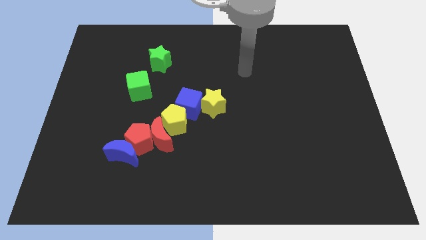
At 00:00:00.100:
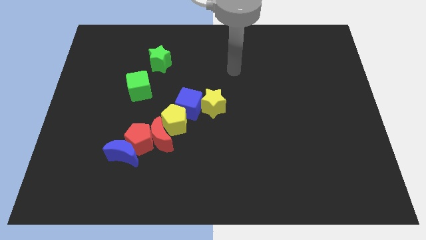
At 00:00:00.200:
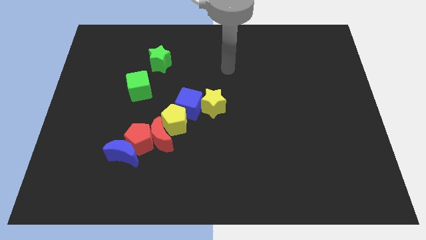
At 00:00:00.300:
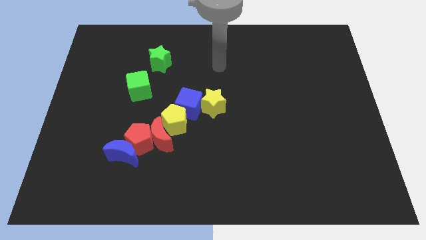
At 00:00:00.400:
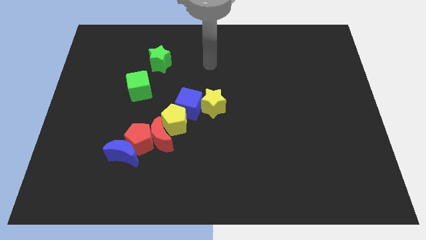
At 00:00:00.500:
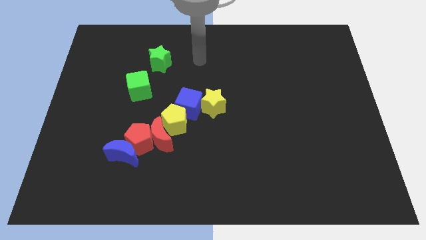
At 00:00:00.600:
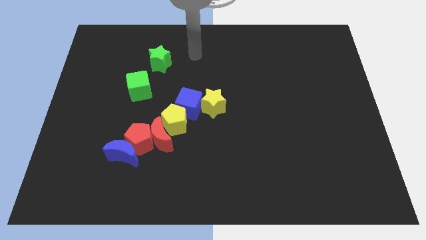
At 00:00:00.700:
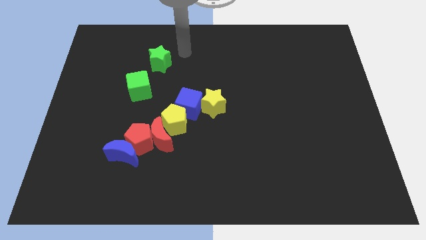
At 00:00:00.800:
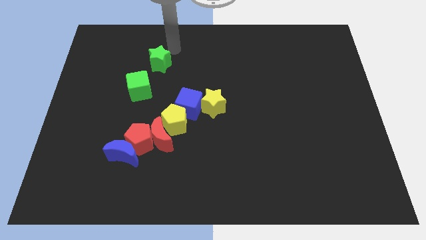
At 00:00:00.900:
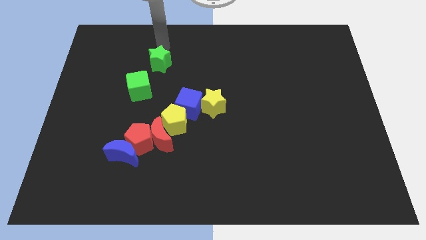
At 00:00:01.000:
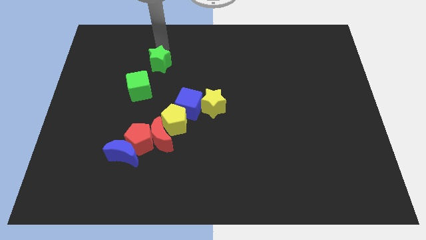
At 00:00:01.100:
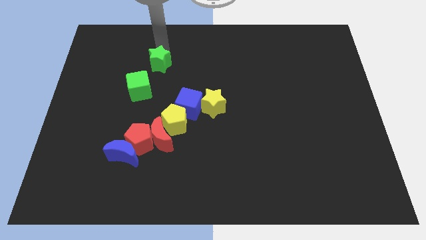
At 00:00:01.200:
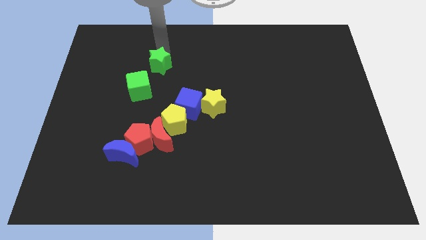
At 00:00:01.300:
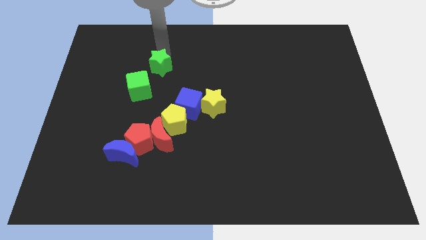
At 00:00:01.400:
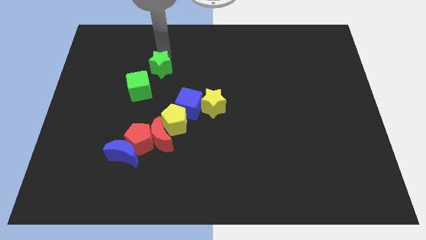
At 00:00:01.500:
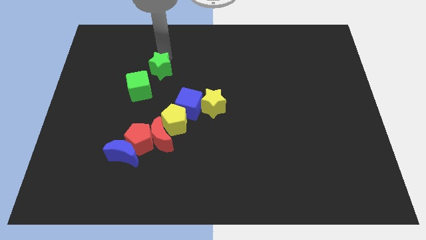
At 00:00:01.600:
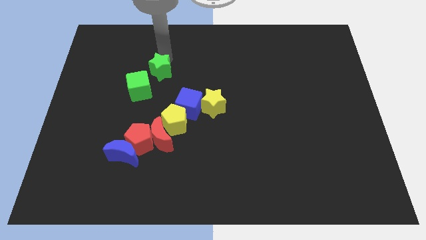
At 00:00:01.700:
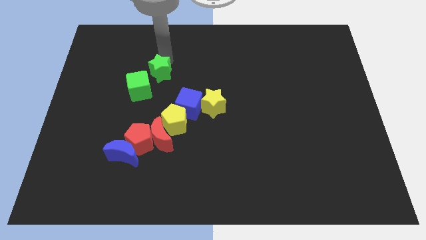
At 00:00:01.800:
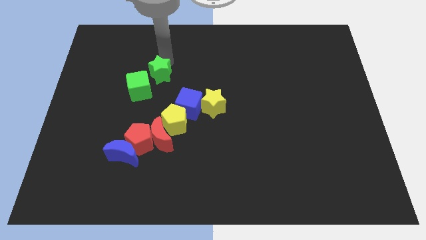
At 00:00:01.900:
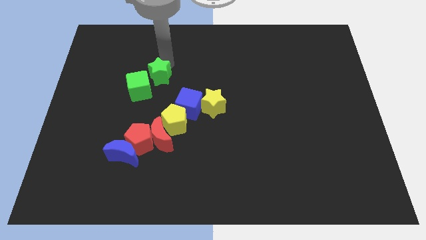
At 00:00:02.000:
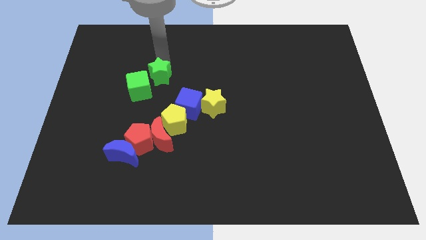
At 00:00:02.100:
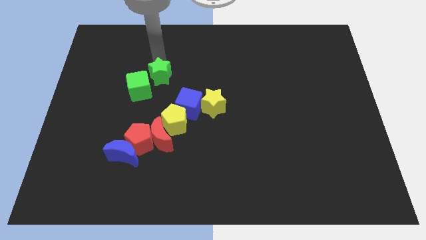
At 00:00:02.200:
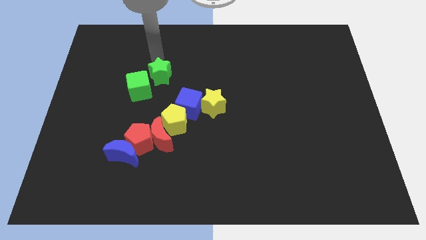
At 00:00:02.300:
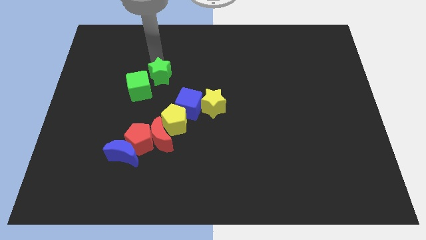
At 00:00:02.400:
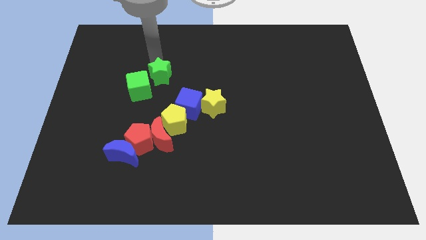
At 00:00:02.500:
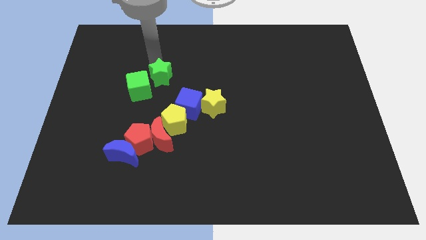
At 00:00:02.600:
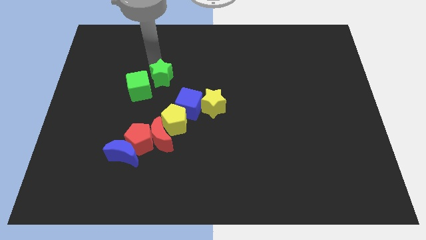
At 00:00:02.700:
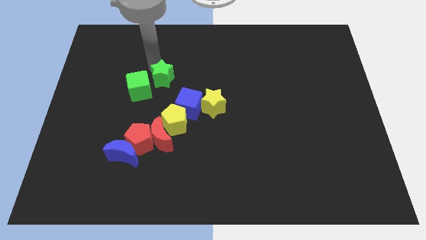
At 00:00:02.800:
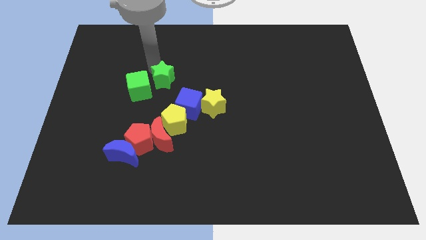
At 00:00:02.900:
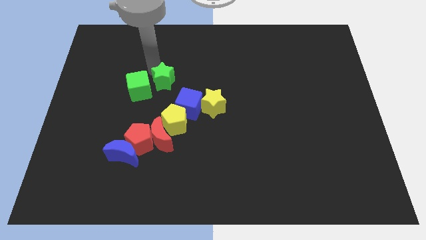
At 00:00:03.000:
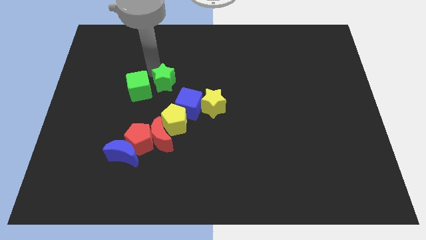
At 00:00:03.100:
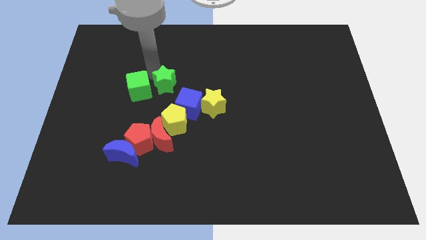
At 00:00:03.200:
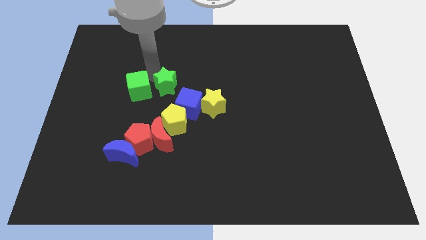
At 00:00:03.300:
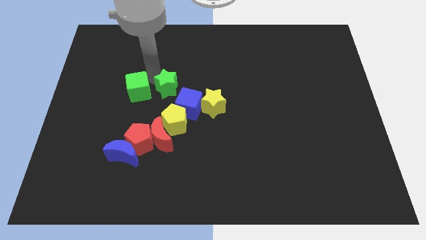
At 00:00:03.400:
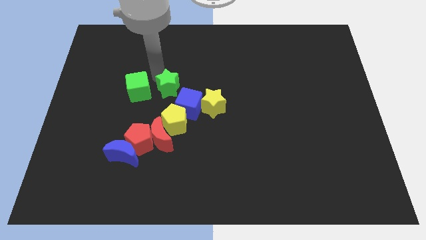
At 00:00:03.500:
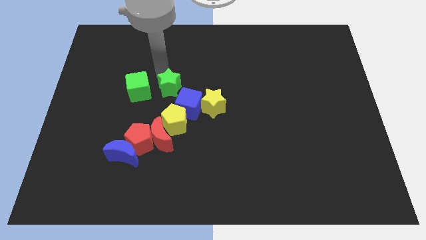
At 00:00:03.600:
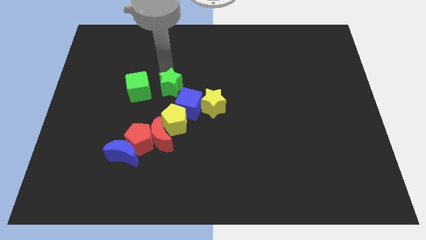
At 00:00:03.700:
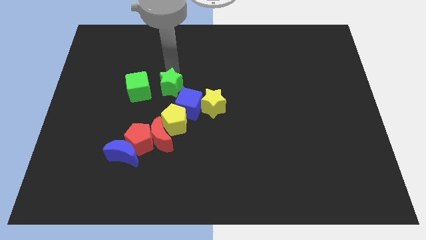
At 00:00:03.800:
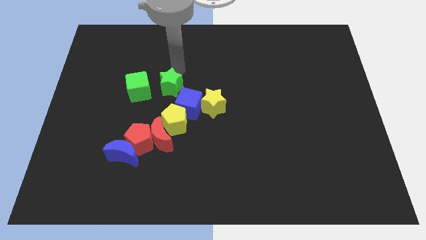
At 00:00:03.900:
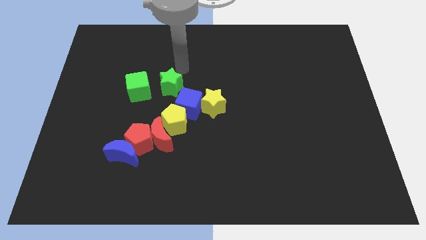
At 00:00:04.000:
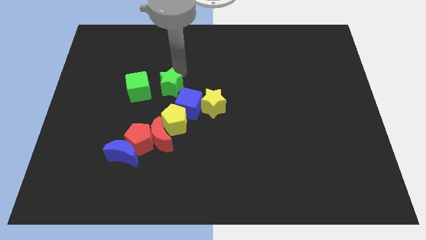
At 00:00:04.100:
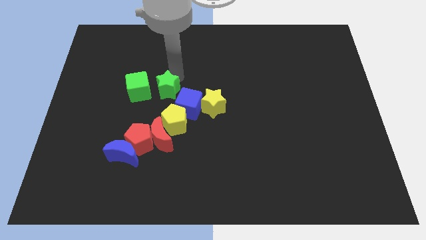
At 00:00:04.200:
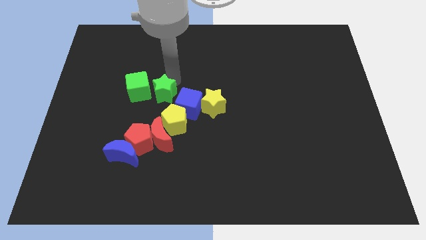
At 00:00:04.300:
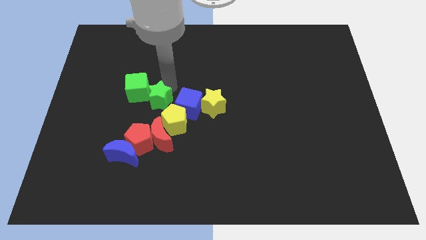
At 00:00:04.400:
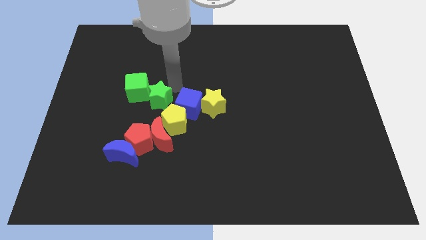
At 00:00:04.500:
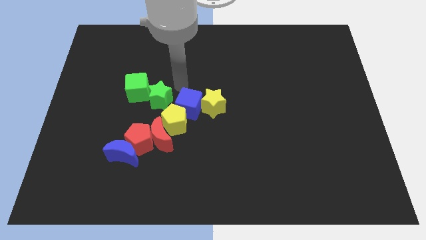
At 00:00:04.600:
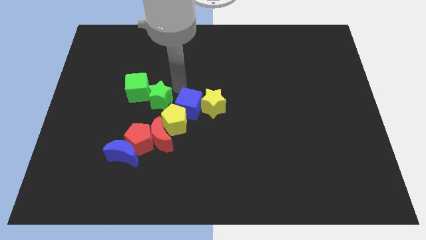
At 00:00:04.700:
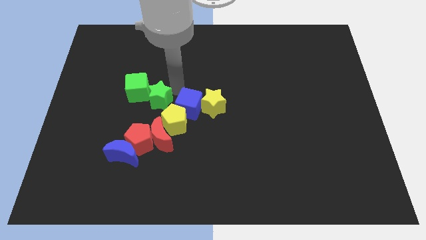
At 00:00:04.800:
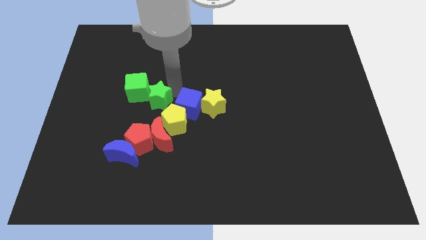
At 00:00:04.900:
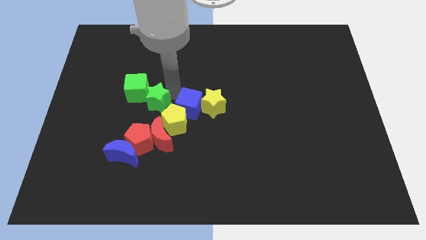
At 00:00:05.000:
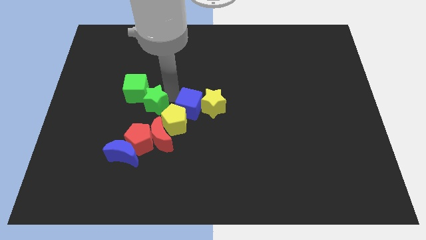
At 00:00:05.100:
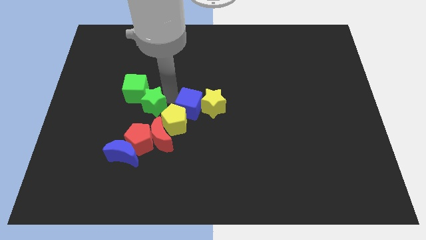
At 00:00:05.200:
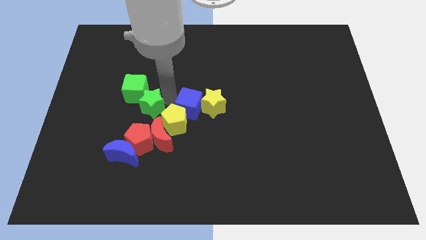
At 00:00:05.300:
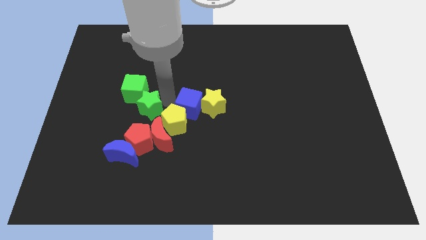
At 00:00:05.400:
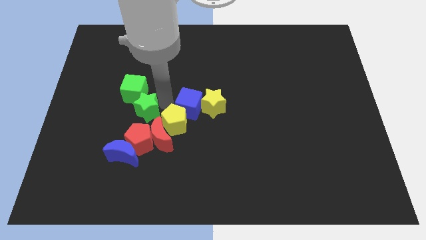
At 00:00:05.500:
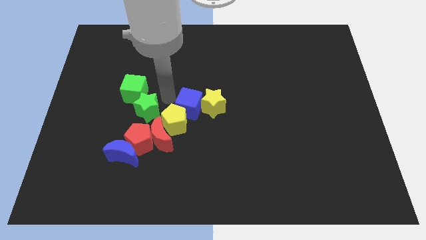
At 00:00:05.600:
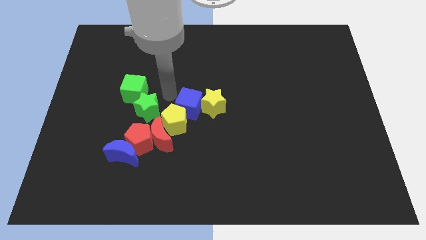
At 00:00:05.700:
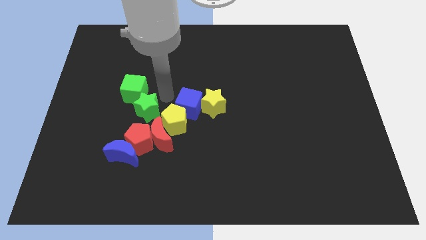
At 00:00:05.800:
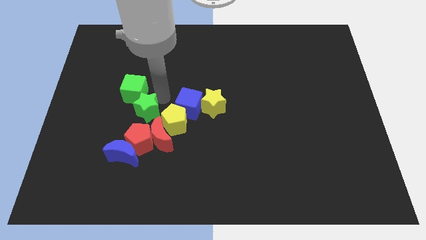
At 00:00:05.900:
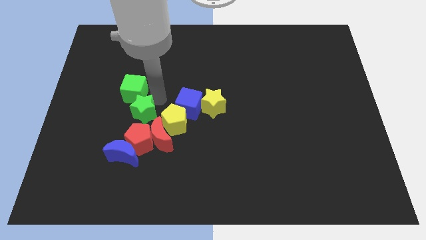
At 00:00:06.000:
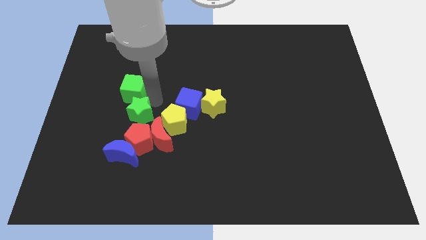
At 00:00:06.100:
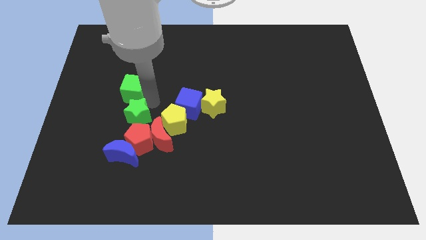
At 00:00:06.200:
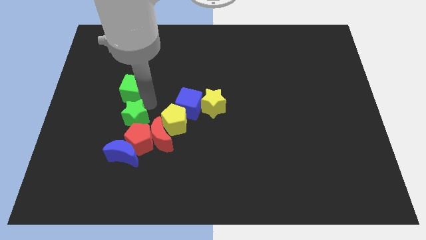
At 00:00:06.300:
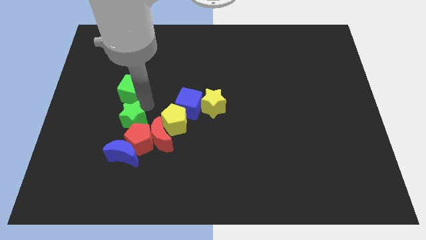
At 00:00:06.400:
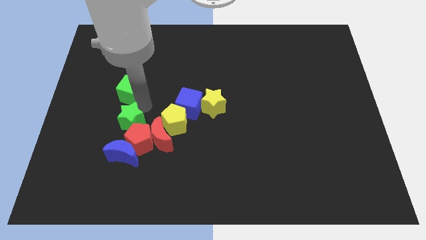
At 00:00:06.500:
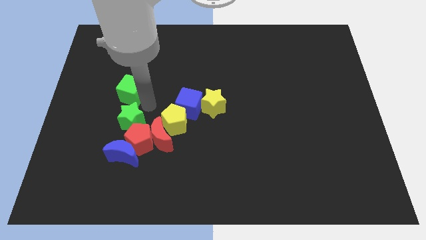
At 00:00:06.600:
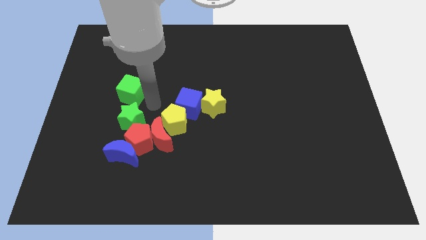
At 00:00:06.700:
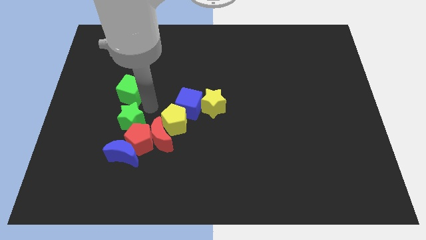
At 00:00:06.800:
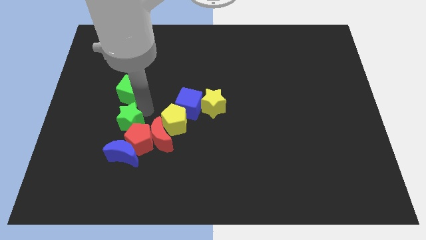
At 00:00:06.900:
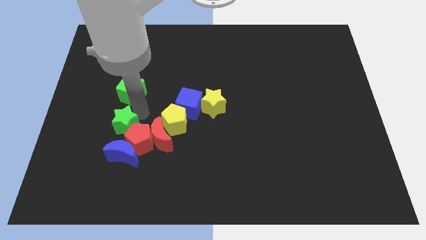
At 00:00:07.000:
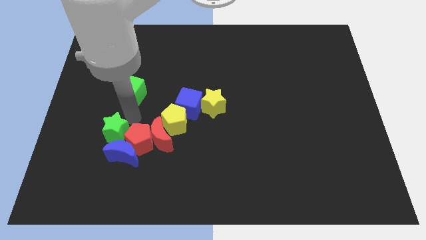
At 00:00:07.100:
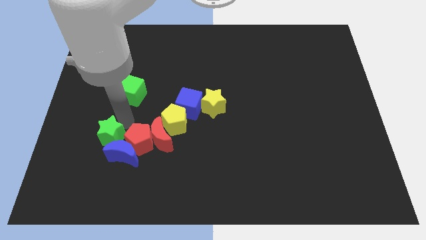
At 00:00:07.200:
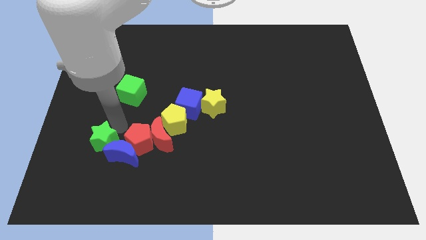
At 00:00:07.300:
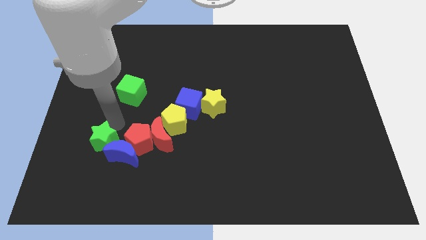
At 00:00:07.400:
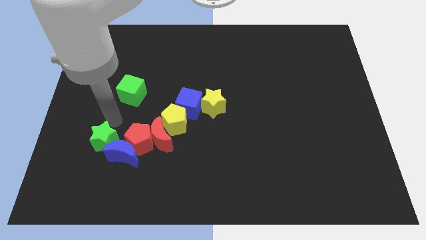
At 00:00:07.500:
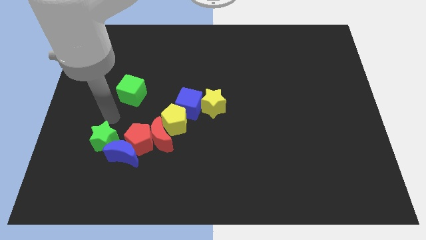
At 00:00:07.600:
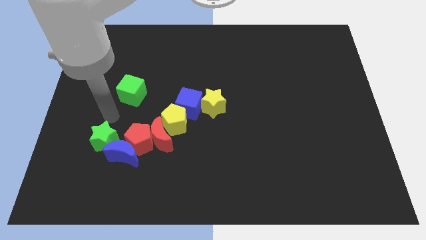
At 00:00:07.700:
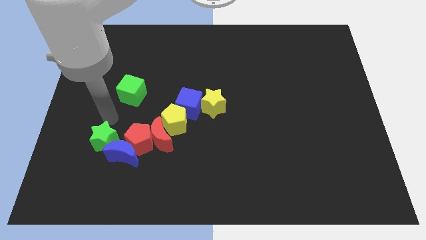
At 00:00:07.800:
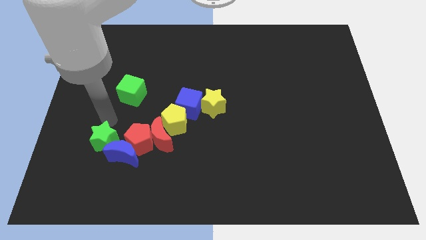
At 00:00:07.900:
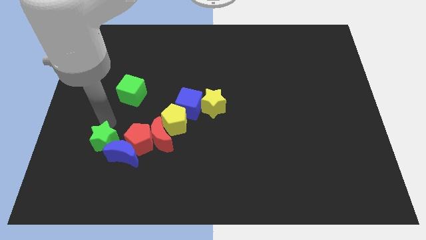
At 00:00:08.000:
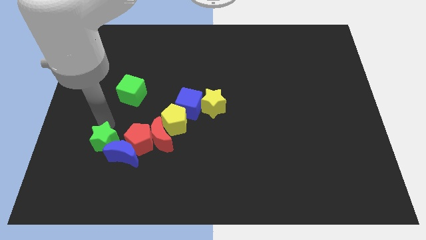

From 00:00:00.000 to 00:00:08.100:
push the green star down
